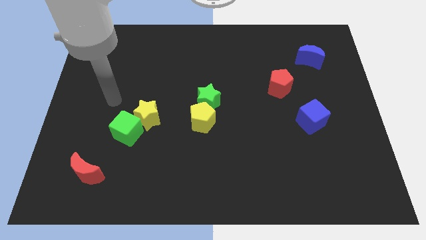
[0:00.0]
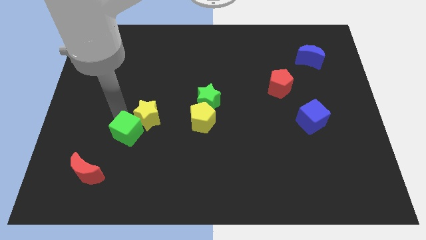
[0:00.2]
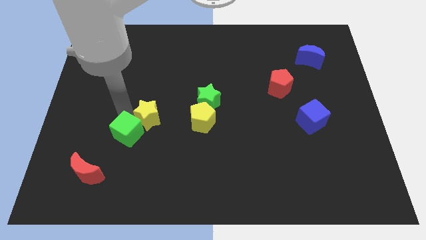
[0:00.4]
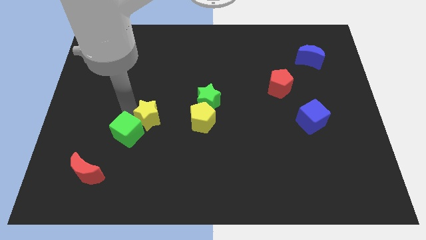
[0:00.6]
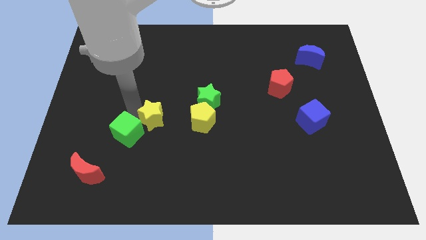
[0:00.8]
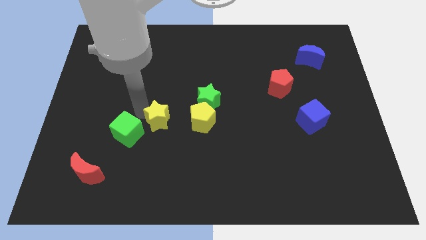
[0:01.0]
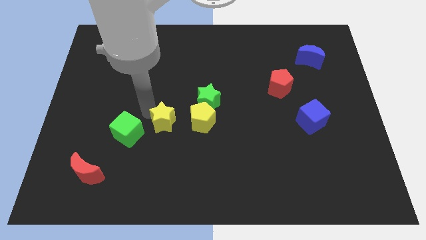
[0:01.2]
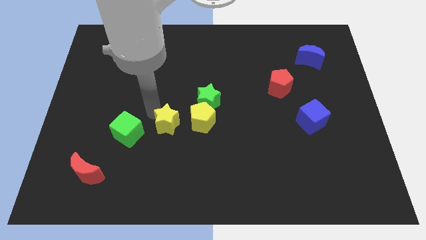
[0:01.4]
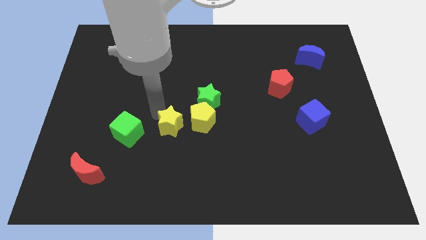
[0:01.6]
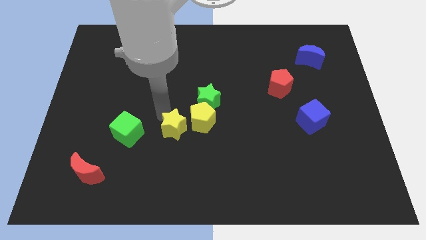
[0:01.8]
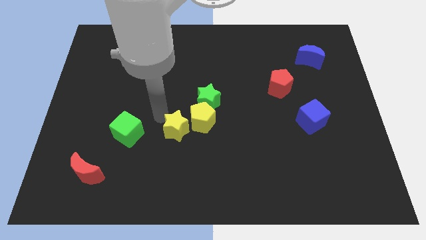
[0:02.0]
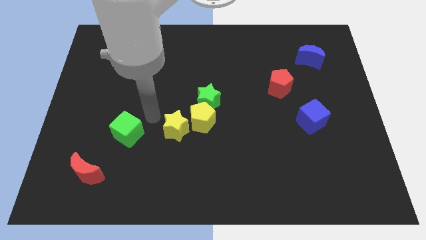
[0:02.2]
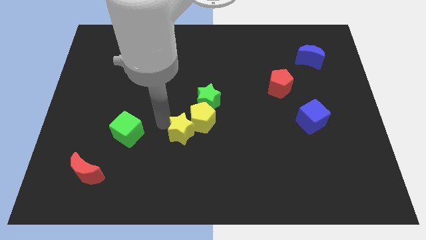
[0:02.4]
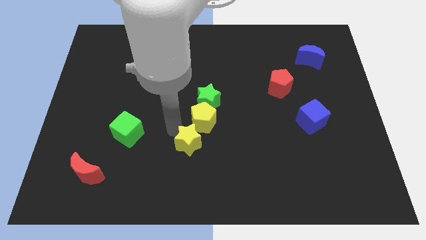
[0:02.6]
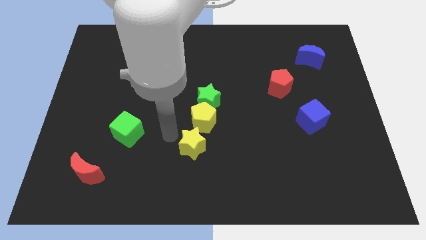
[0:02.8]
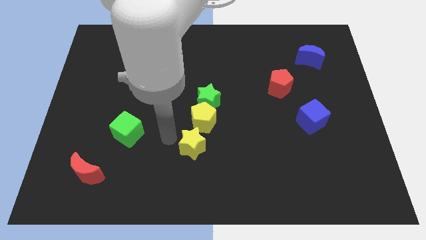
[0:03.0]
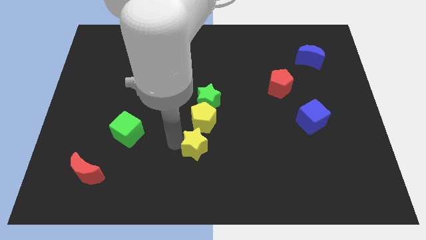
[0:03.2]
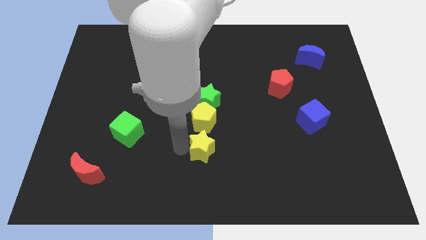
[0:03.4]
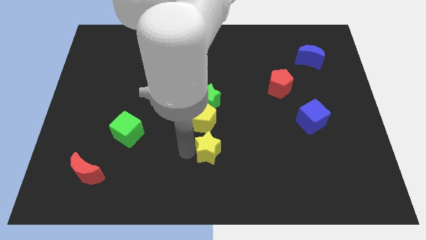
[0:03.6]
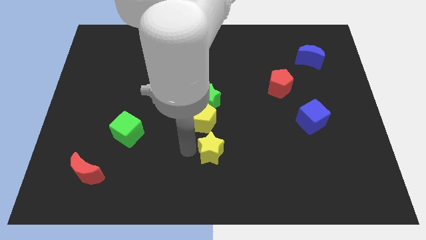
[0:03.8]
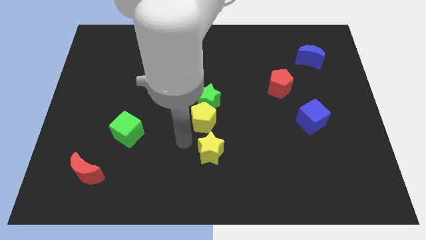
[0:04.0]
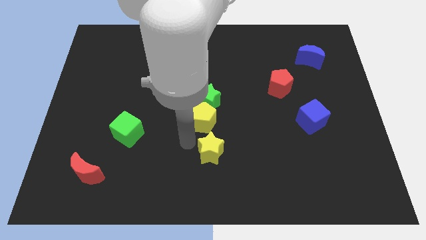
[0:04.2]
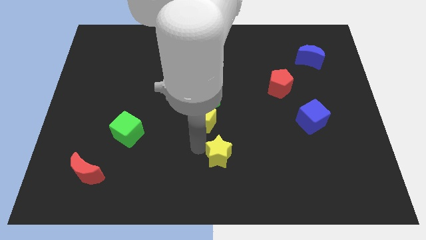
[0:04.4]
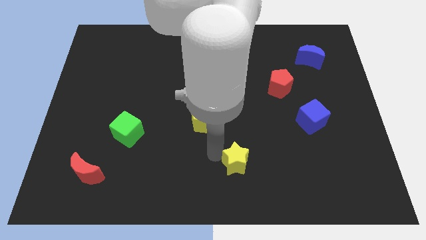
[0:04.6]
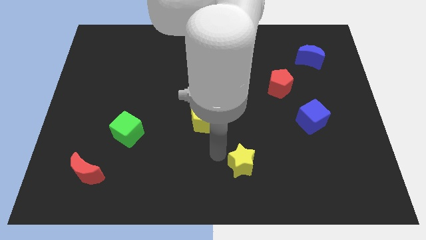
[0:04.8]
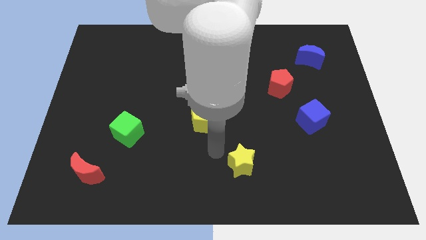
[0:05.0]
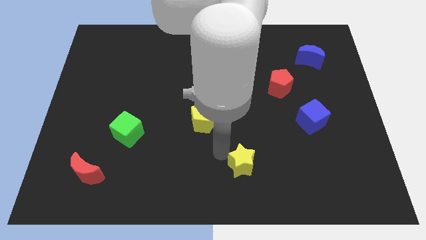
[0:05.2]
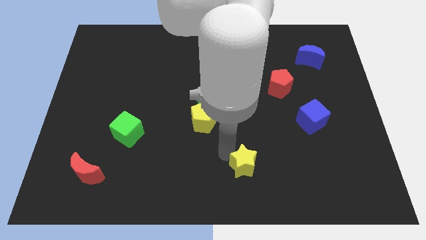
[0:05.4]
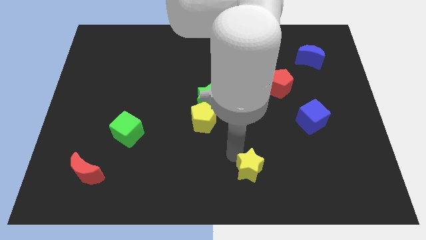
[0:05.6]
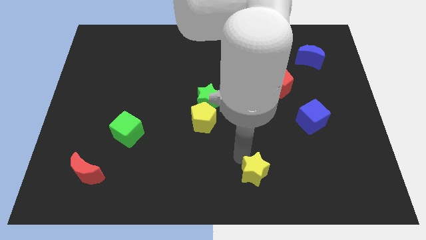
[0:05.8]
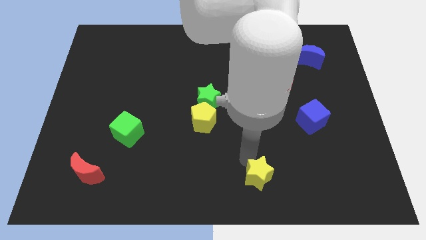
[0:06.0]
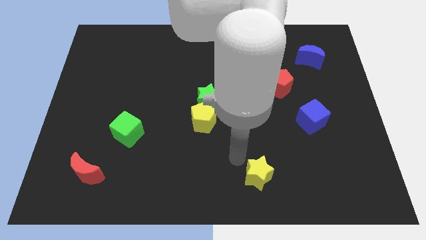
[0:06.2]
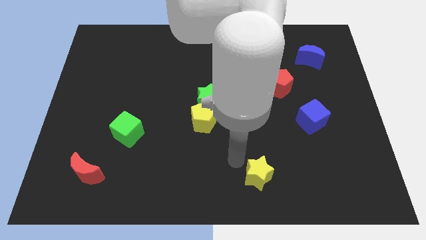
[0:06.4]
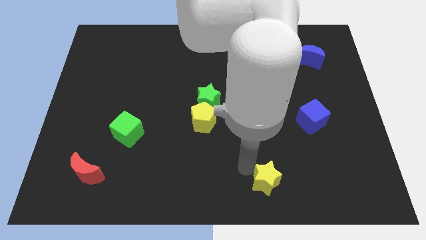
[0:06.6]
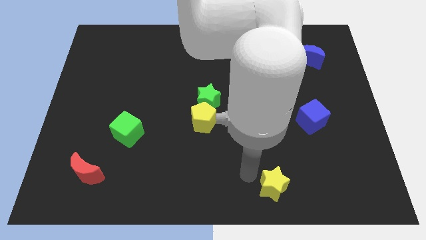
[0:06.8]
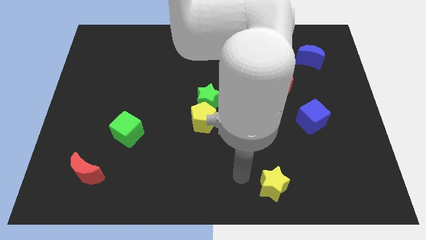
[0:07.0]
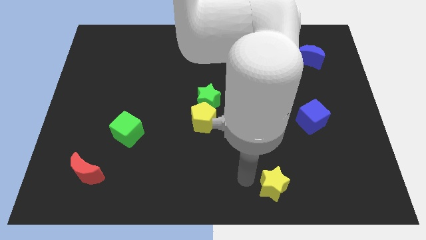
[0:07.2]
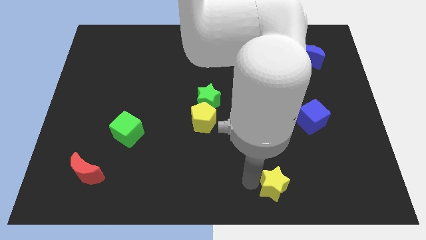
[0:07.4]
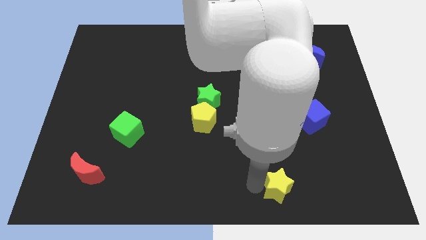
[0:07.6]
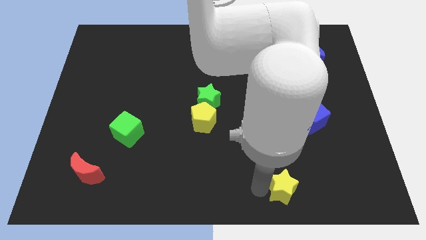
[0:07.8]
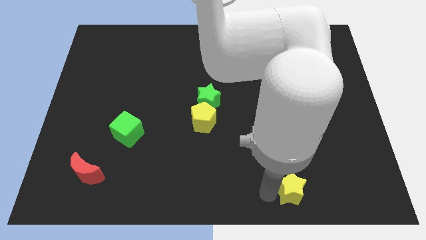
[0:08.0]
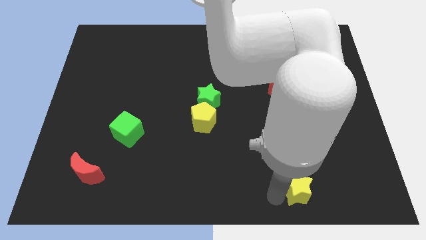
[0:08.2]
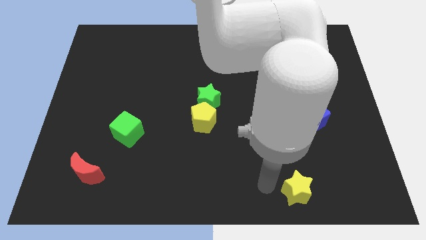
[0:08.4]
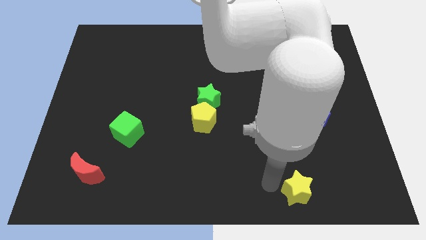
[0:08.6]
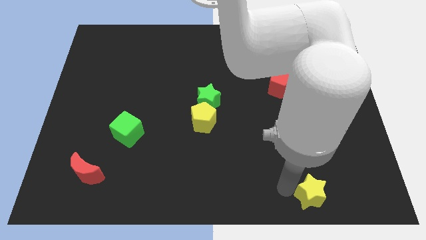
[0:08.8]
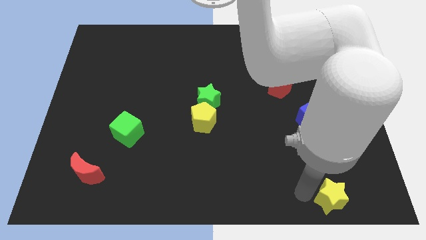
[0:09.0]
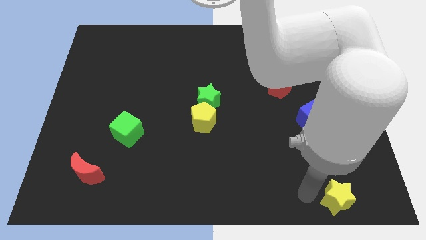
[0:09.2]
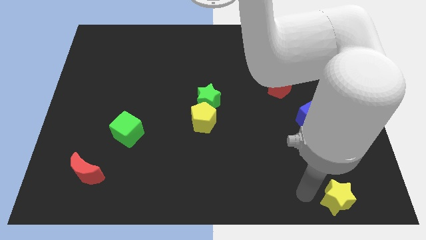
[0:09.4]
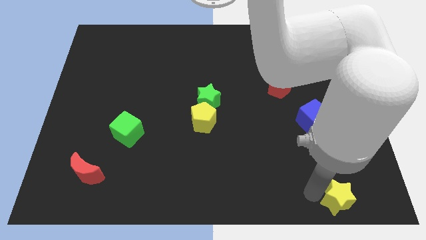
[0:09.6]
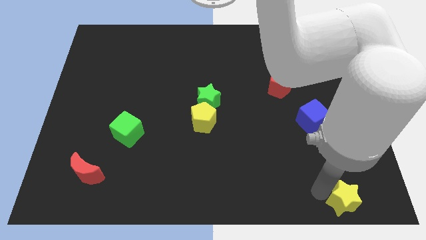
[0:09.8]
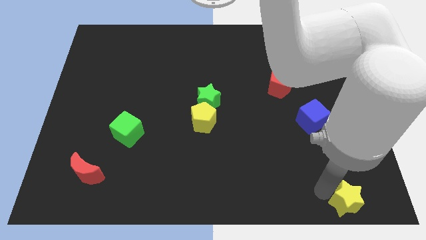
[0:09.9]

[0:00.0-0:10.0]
put the yellow star to the bottom right of the board
